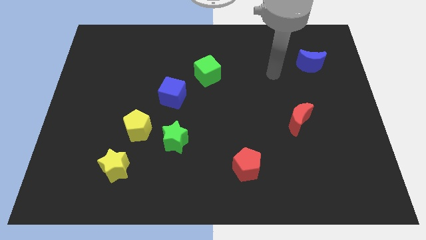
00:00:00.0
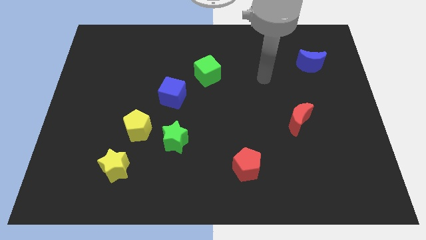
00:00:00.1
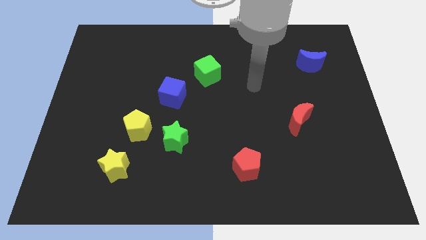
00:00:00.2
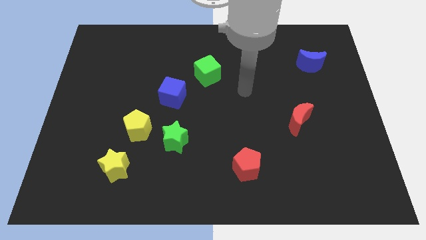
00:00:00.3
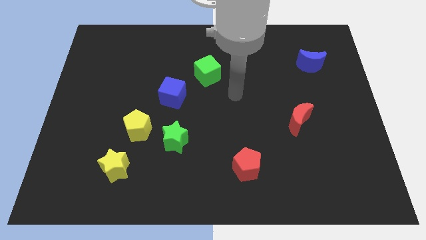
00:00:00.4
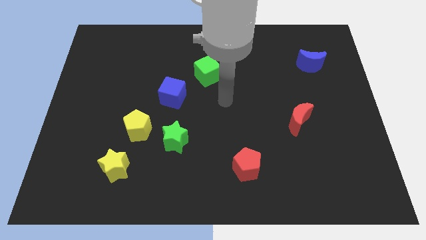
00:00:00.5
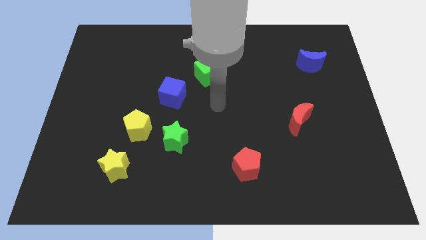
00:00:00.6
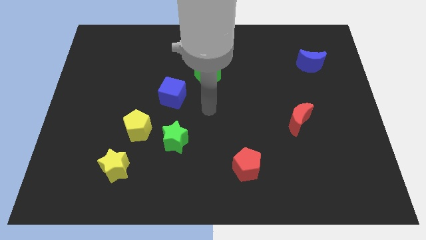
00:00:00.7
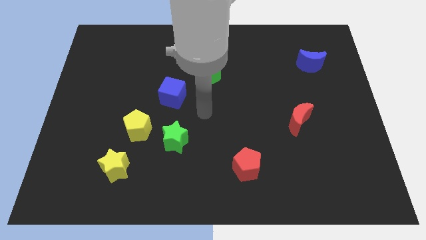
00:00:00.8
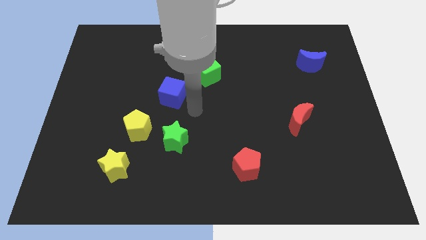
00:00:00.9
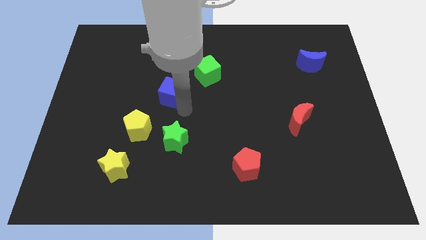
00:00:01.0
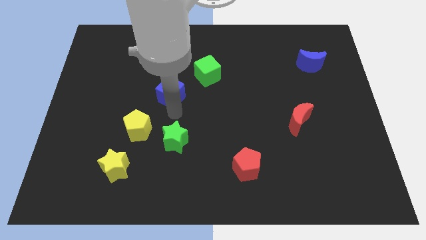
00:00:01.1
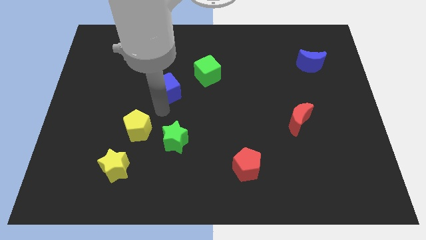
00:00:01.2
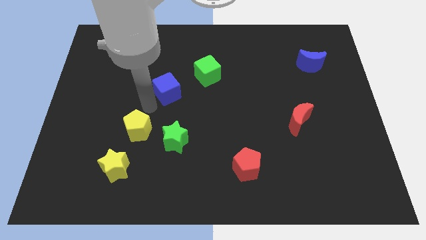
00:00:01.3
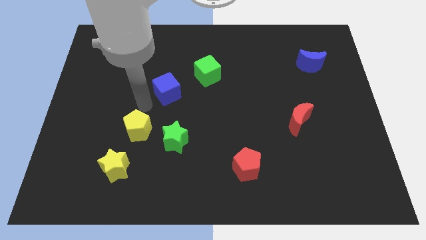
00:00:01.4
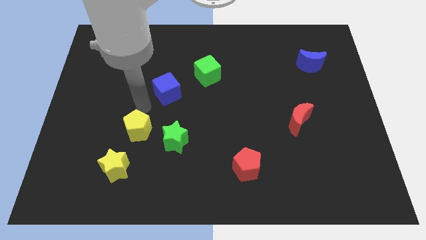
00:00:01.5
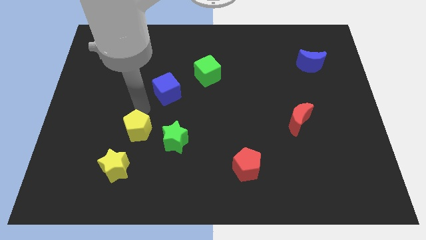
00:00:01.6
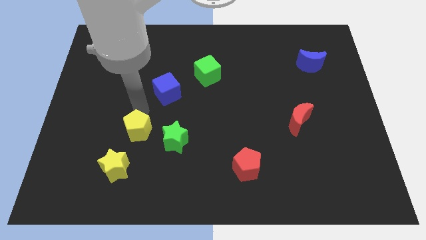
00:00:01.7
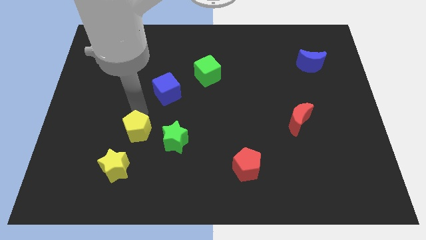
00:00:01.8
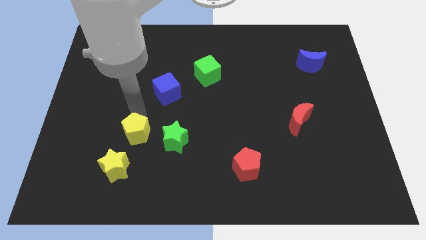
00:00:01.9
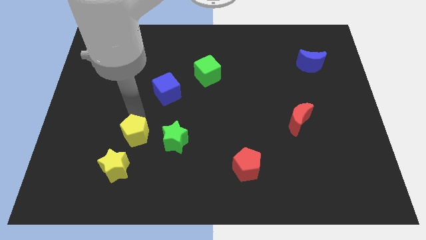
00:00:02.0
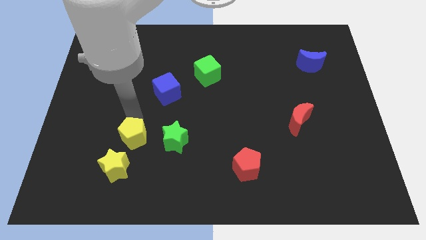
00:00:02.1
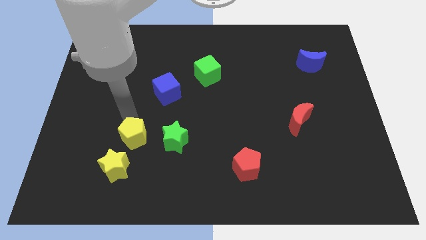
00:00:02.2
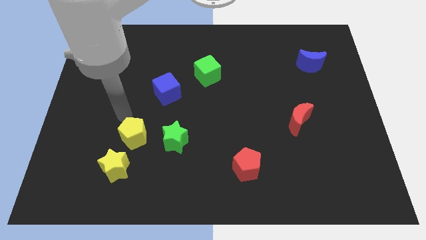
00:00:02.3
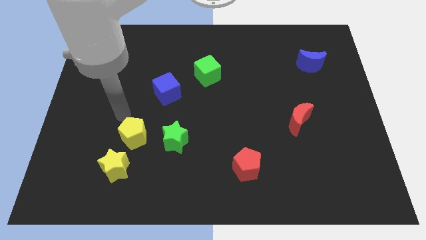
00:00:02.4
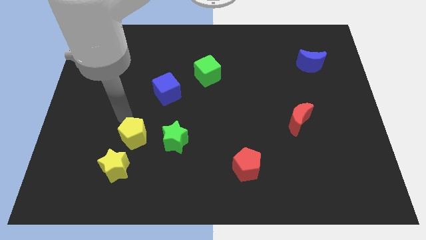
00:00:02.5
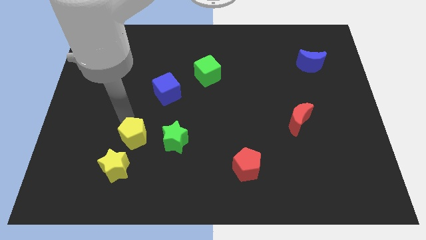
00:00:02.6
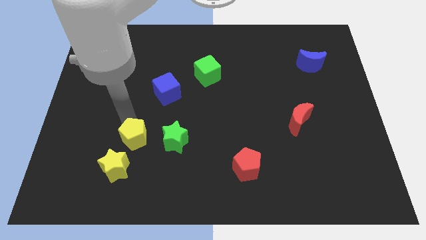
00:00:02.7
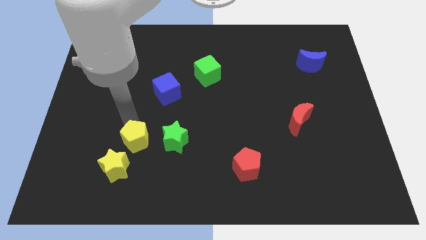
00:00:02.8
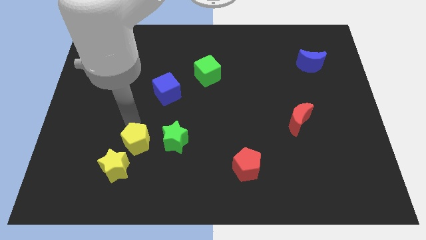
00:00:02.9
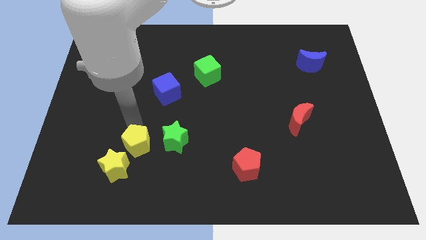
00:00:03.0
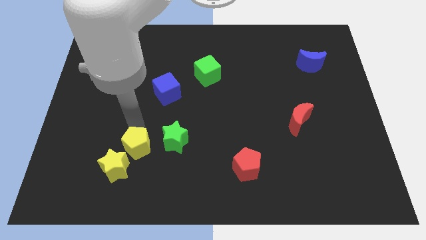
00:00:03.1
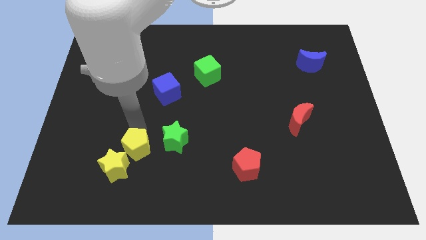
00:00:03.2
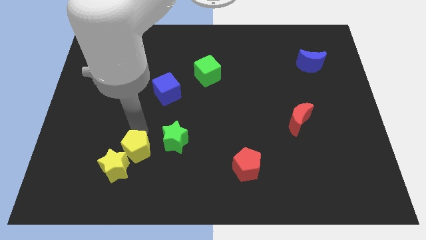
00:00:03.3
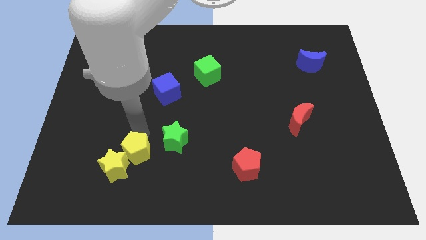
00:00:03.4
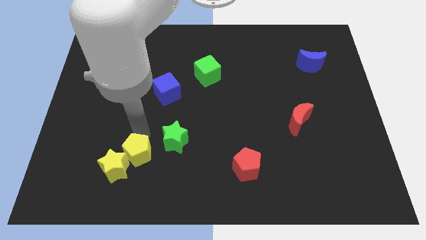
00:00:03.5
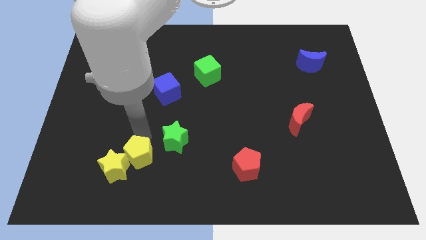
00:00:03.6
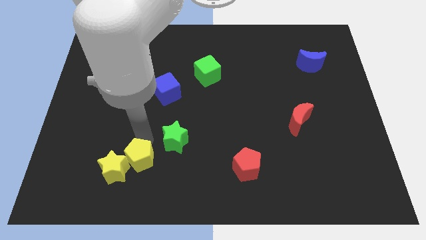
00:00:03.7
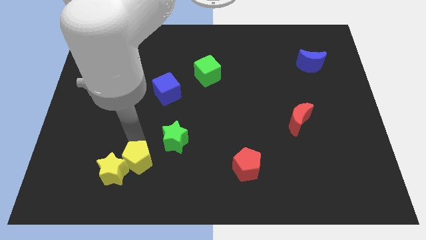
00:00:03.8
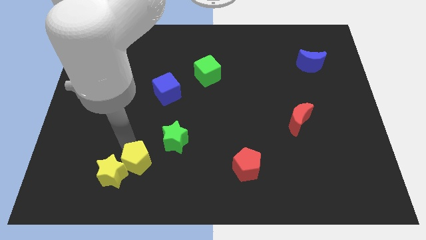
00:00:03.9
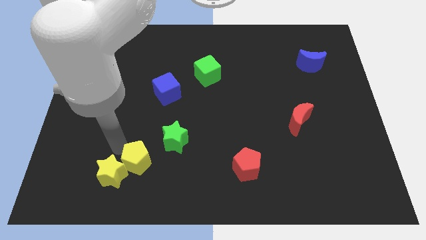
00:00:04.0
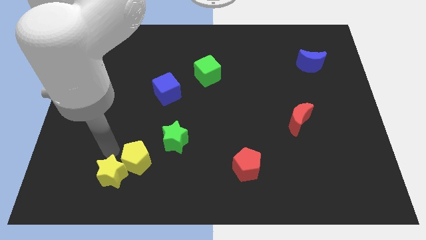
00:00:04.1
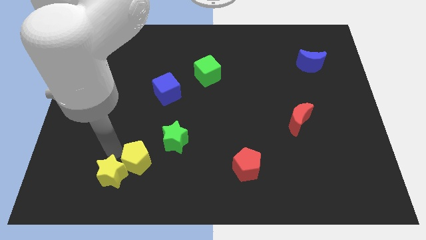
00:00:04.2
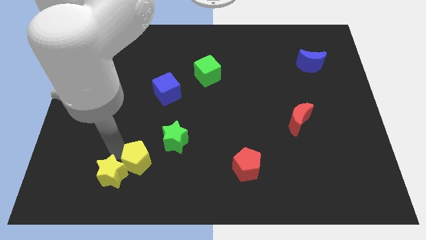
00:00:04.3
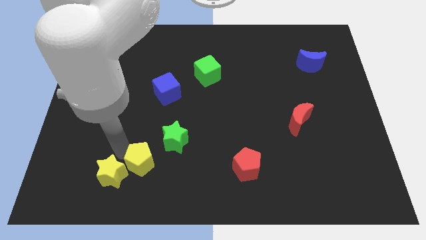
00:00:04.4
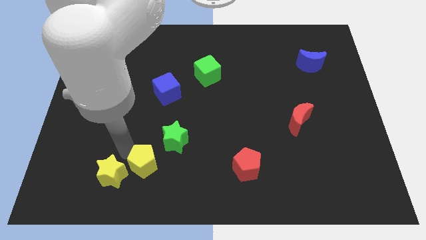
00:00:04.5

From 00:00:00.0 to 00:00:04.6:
move the yellow pentagon downwards and to the right diagonally slightly

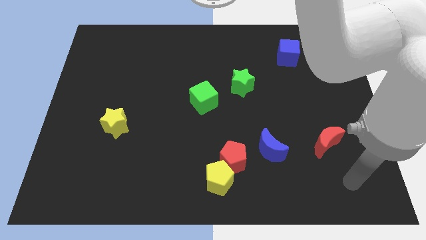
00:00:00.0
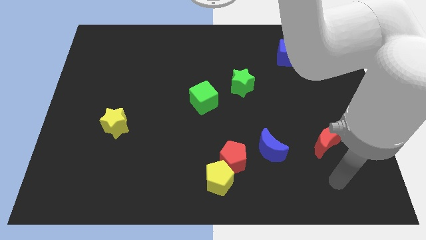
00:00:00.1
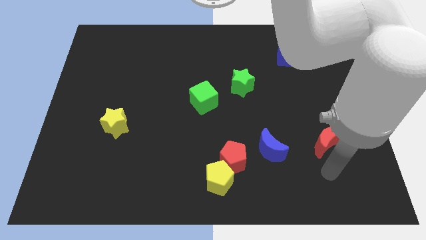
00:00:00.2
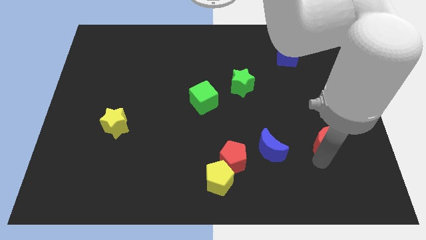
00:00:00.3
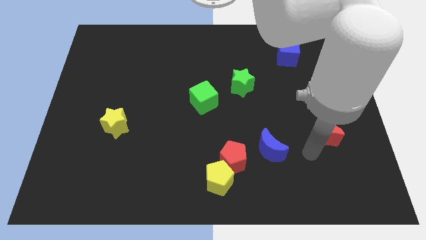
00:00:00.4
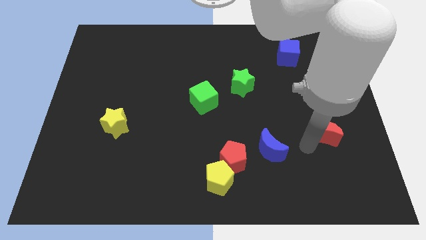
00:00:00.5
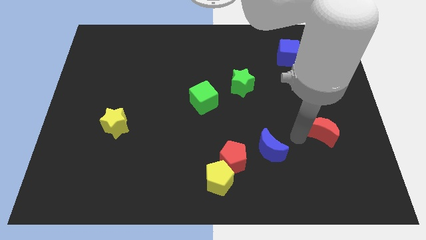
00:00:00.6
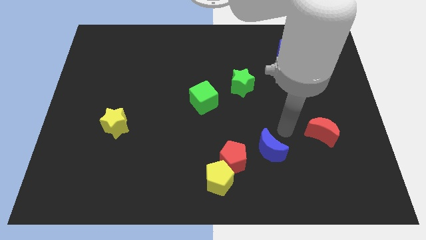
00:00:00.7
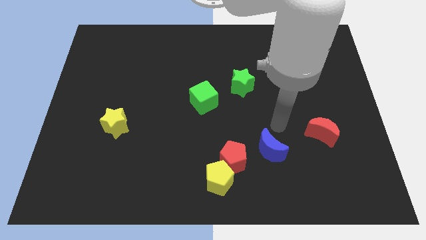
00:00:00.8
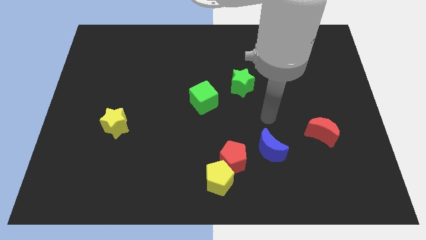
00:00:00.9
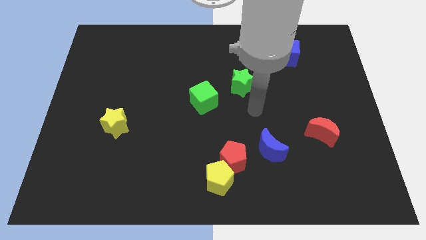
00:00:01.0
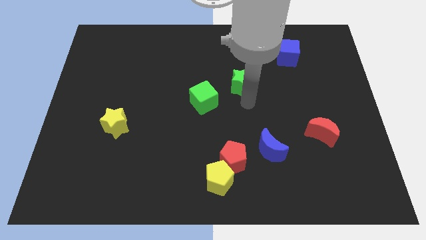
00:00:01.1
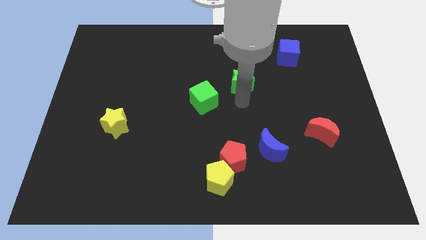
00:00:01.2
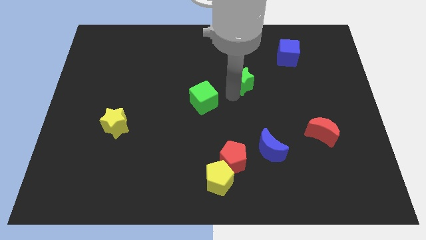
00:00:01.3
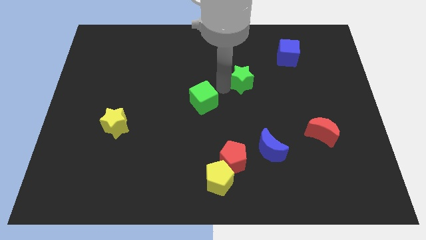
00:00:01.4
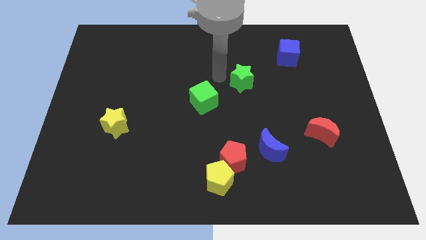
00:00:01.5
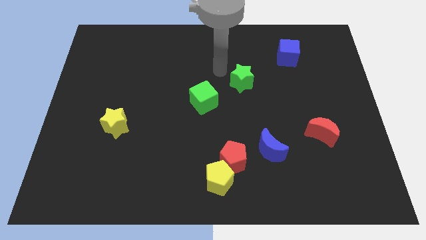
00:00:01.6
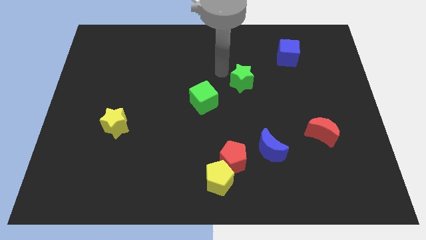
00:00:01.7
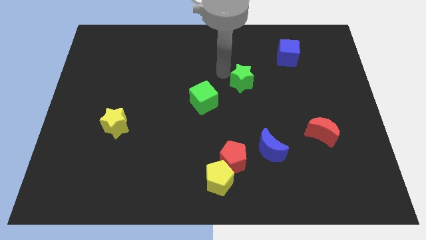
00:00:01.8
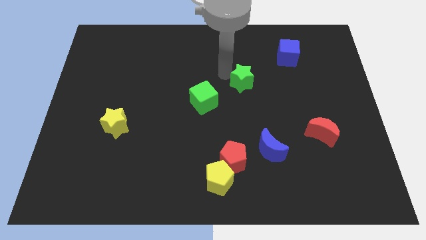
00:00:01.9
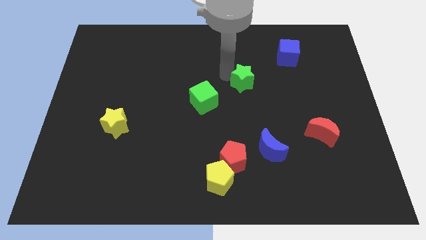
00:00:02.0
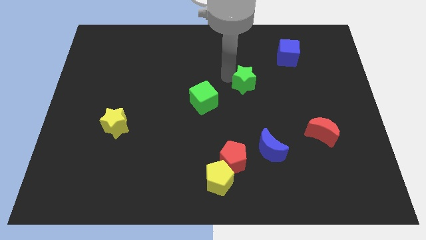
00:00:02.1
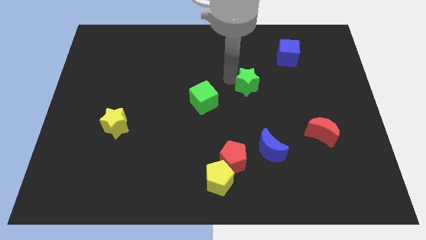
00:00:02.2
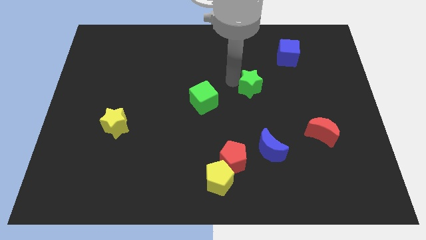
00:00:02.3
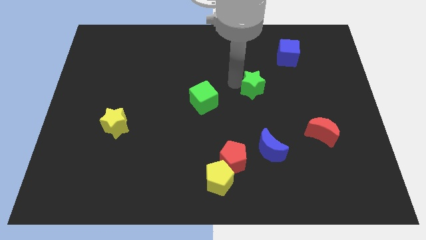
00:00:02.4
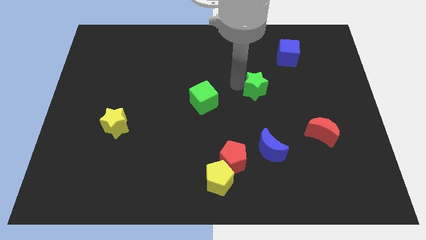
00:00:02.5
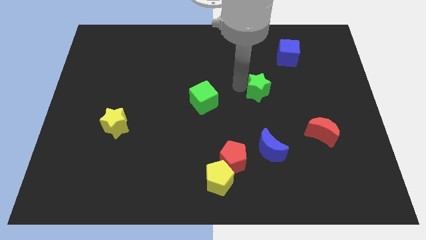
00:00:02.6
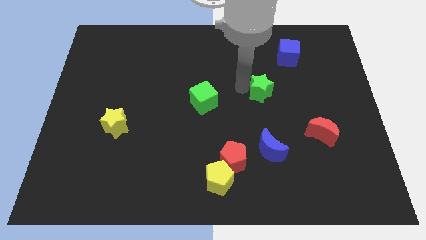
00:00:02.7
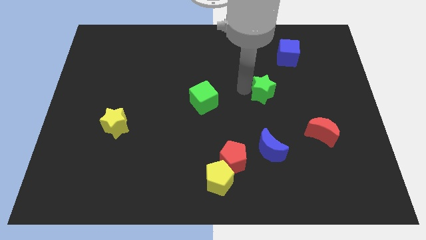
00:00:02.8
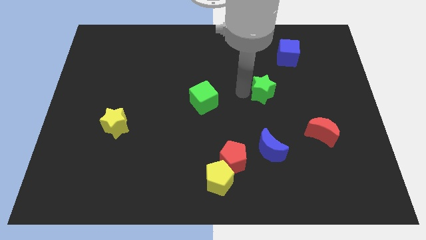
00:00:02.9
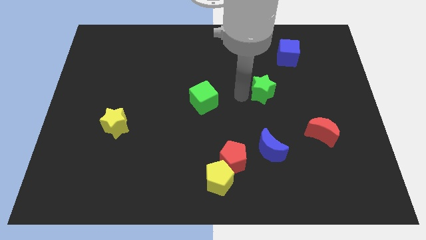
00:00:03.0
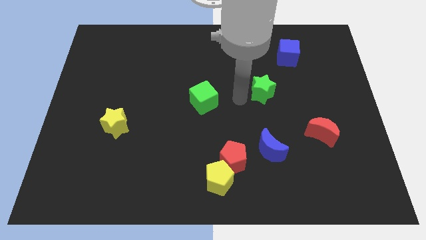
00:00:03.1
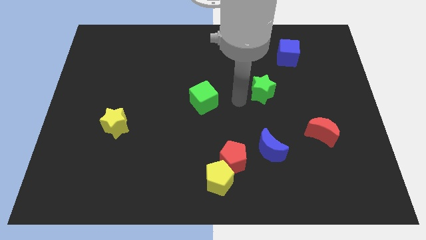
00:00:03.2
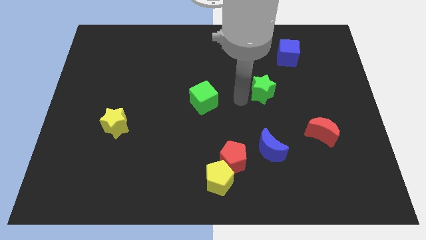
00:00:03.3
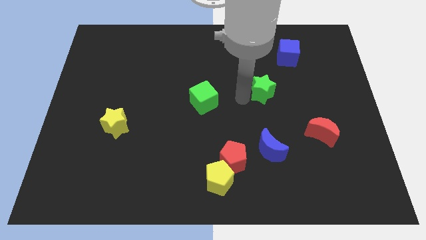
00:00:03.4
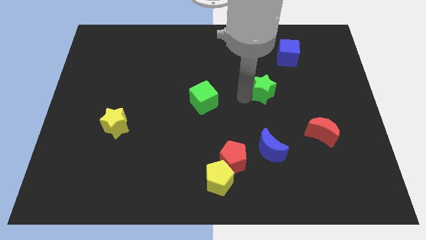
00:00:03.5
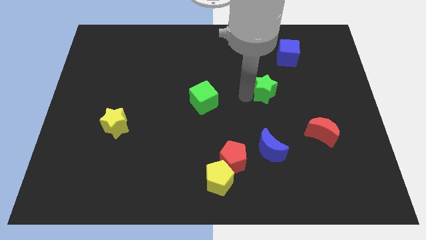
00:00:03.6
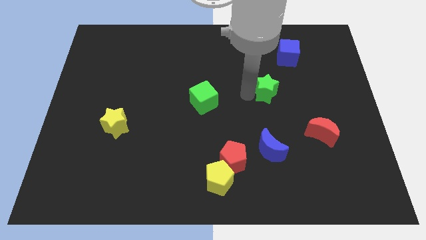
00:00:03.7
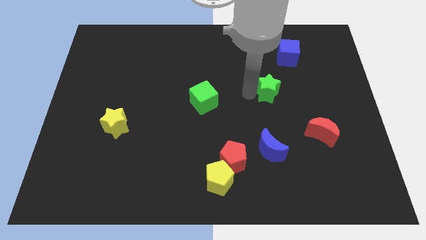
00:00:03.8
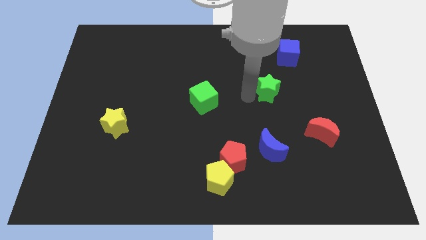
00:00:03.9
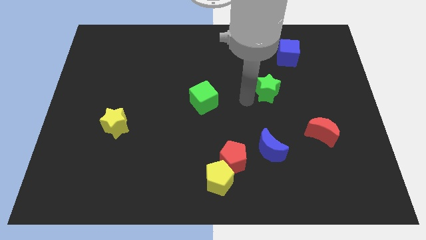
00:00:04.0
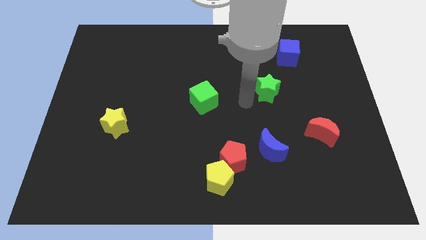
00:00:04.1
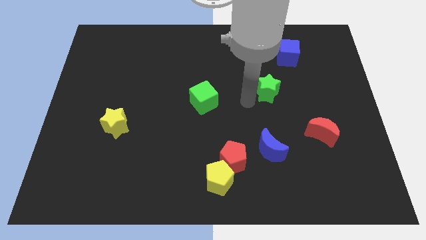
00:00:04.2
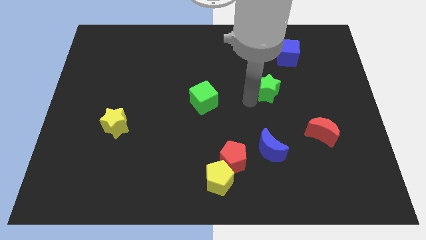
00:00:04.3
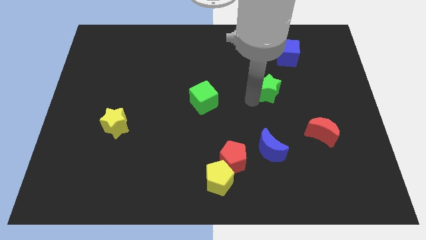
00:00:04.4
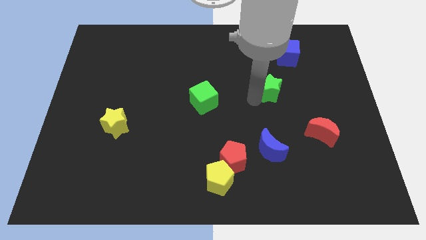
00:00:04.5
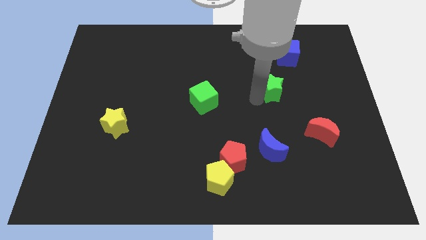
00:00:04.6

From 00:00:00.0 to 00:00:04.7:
move the green star a little bit right
